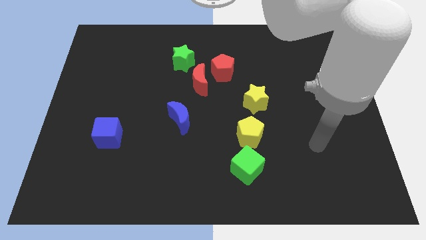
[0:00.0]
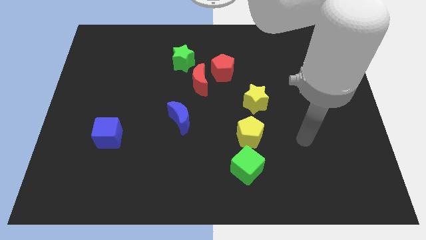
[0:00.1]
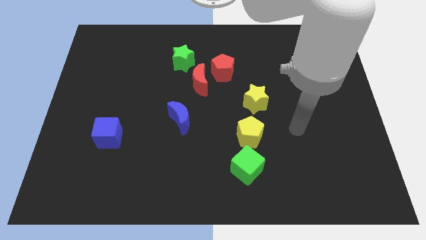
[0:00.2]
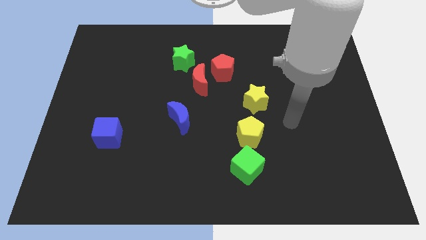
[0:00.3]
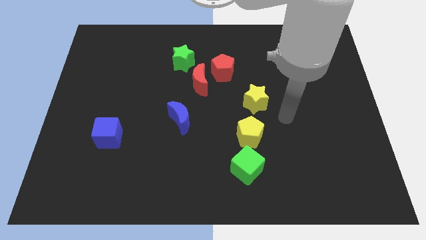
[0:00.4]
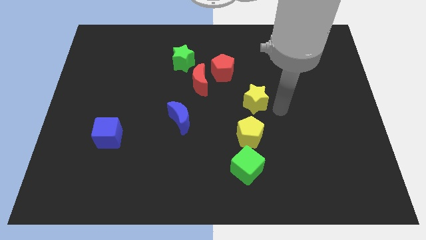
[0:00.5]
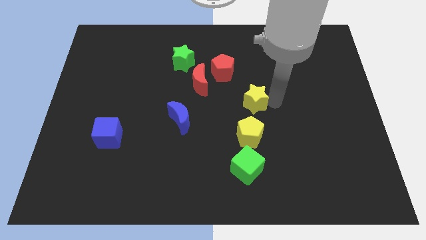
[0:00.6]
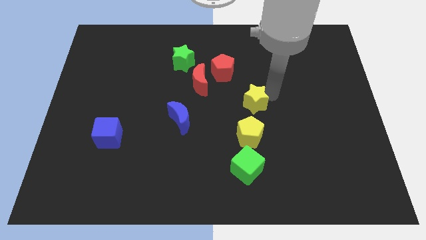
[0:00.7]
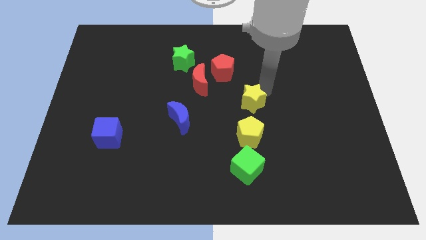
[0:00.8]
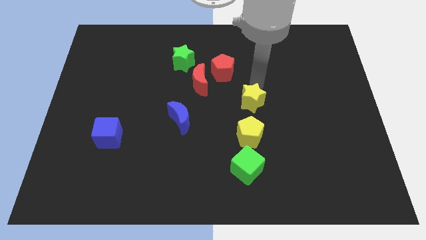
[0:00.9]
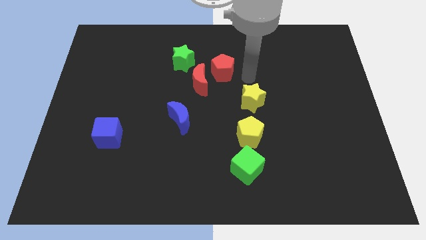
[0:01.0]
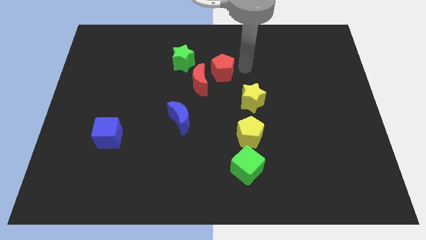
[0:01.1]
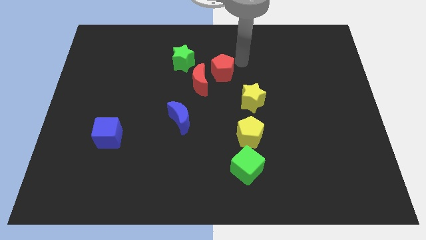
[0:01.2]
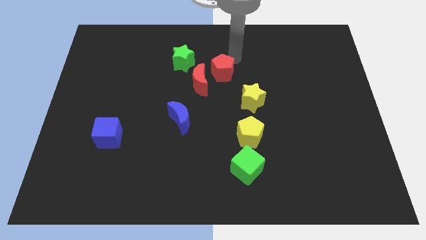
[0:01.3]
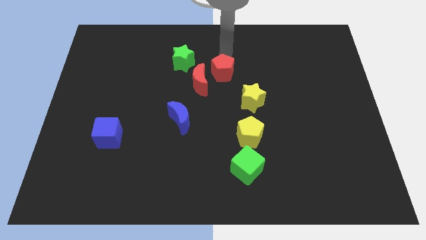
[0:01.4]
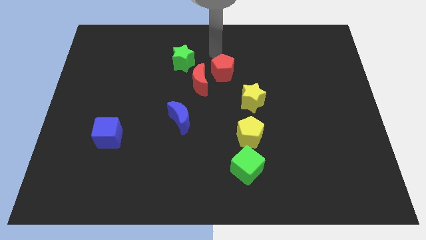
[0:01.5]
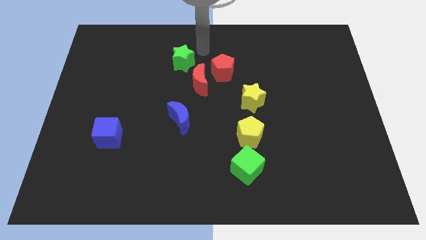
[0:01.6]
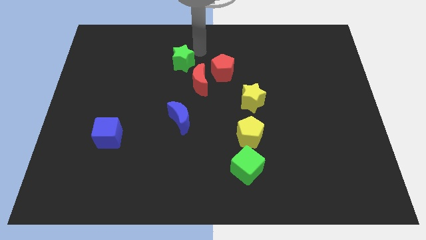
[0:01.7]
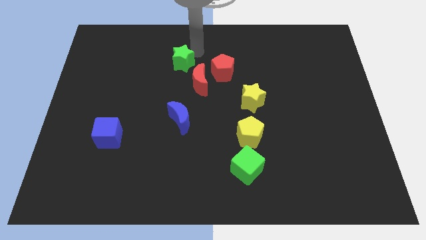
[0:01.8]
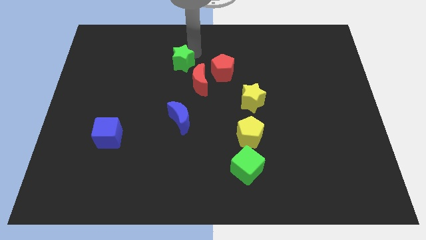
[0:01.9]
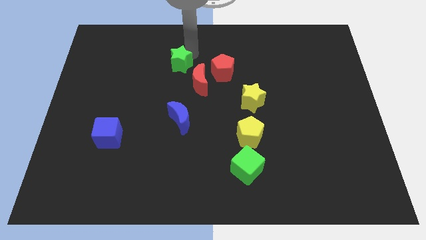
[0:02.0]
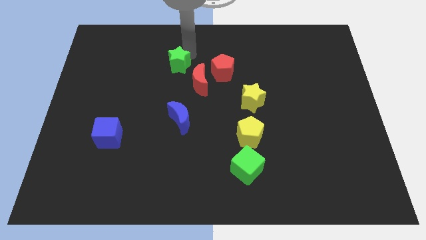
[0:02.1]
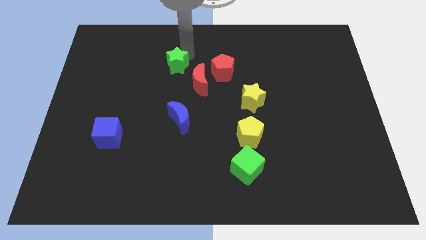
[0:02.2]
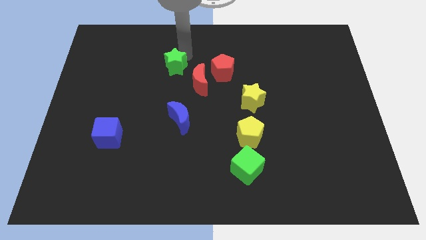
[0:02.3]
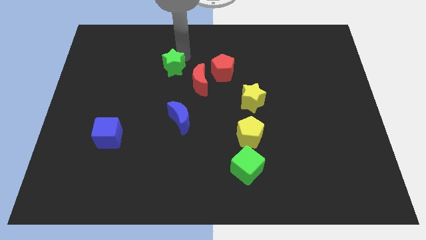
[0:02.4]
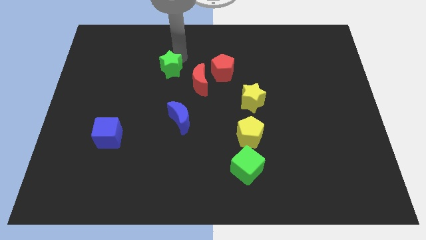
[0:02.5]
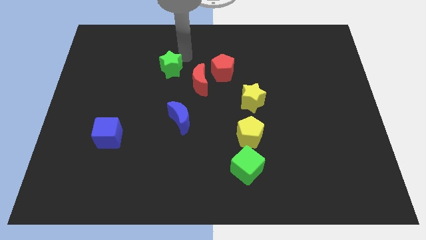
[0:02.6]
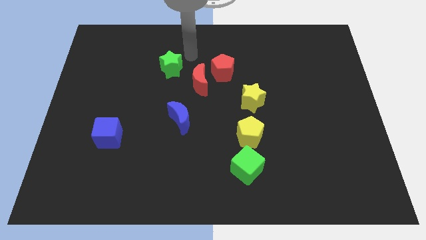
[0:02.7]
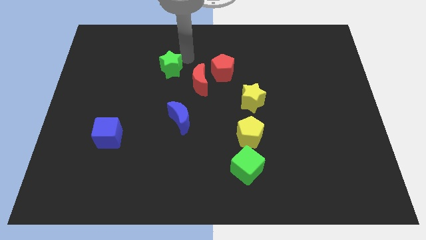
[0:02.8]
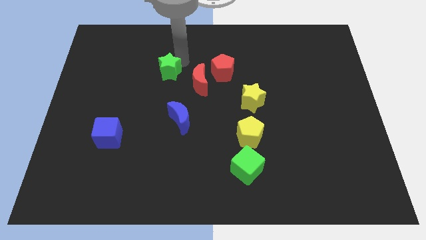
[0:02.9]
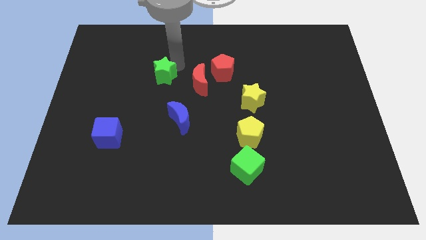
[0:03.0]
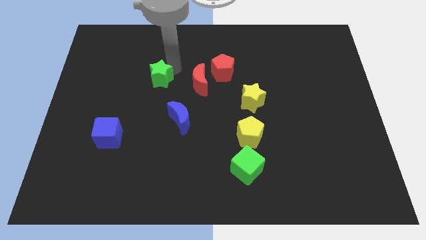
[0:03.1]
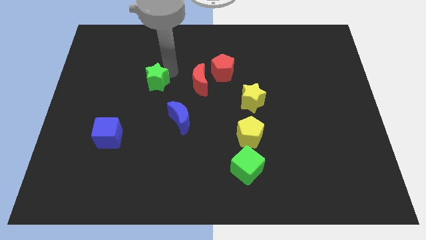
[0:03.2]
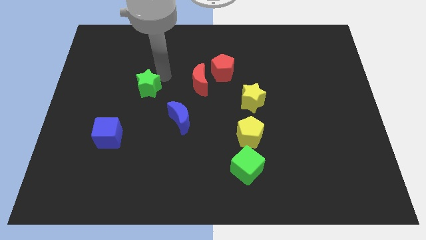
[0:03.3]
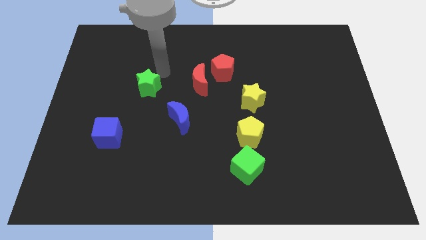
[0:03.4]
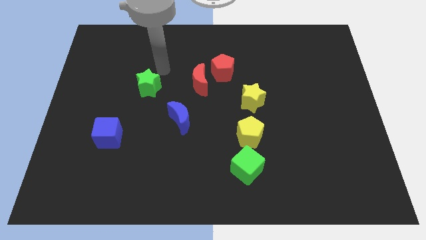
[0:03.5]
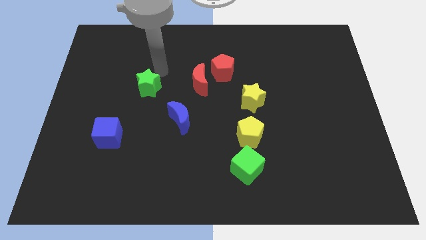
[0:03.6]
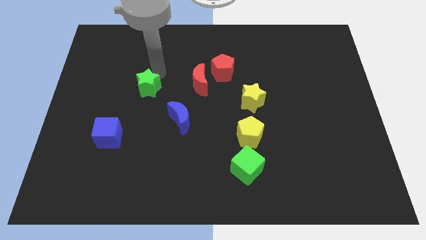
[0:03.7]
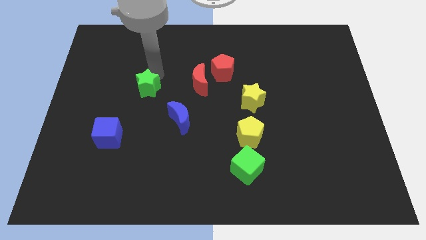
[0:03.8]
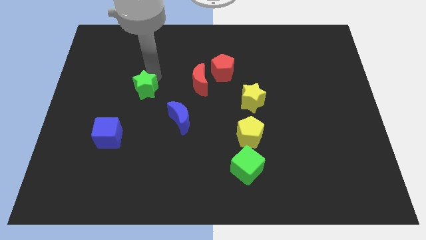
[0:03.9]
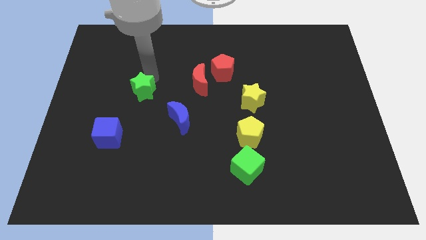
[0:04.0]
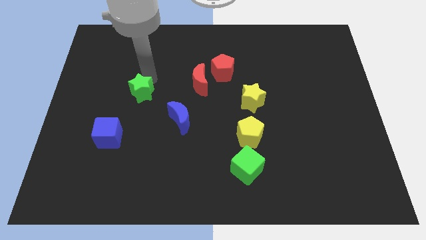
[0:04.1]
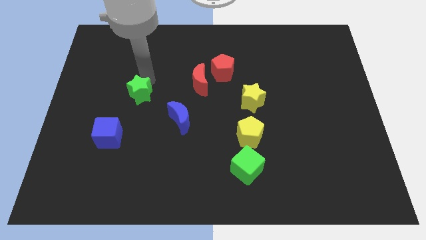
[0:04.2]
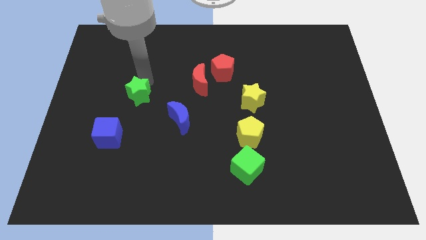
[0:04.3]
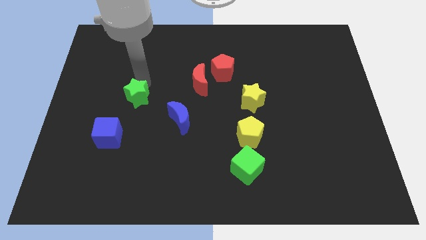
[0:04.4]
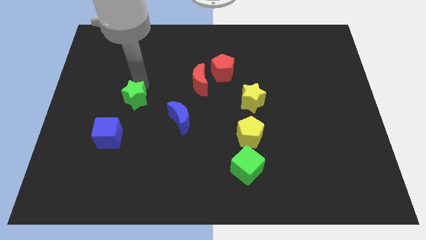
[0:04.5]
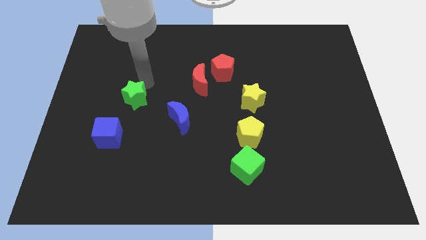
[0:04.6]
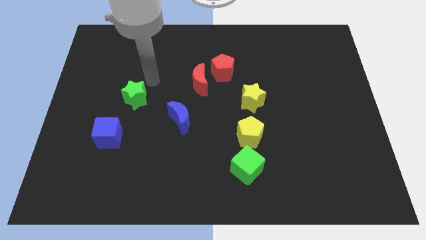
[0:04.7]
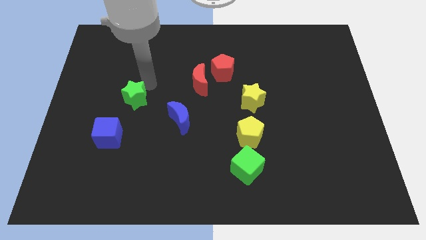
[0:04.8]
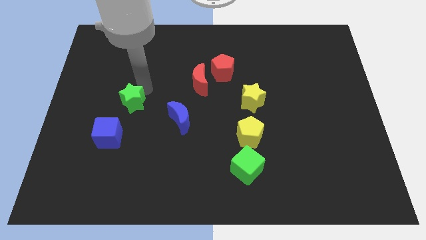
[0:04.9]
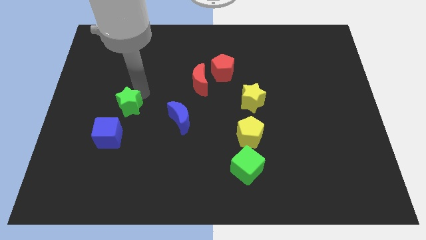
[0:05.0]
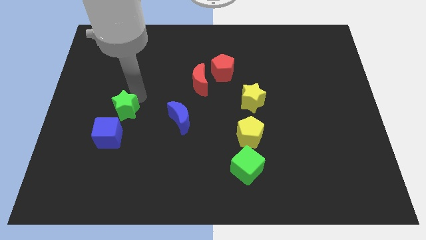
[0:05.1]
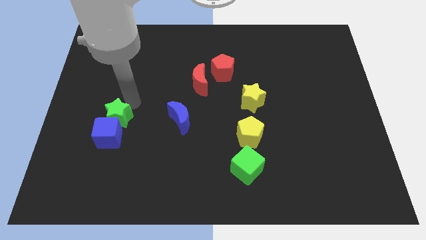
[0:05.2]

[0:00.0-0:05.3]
put the green star next to the blue cube

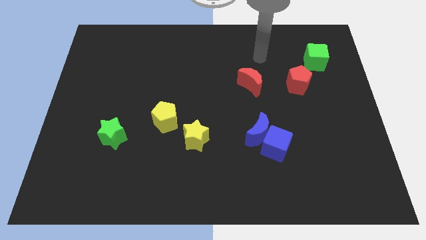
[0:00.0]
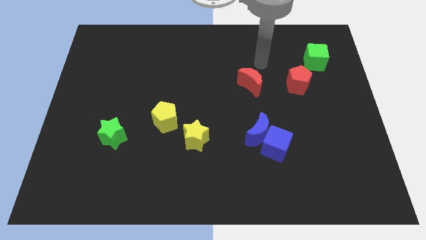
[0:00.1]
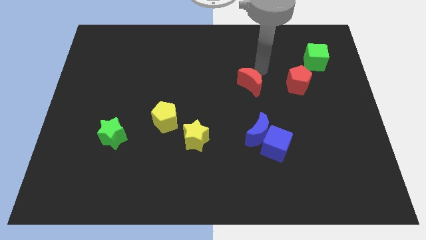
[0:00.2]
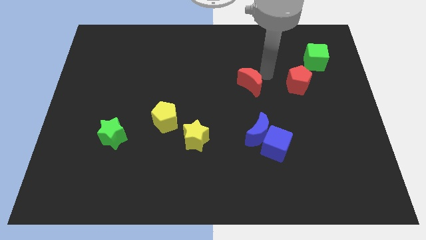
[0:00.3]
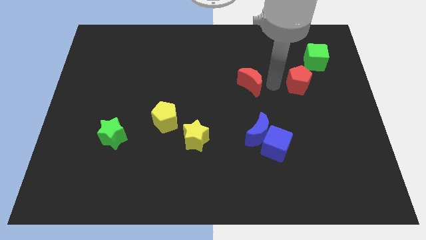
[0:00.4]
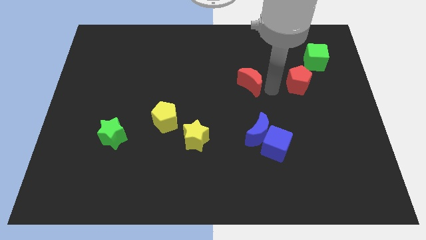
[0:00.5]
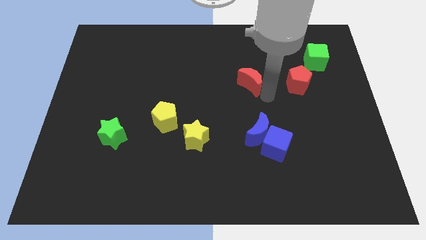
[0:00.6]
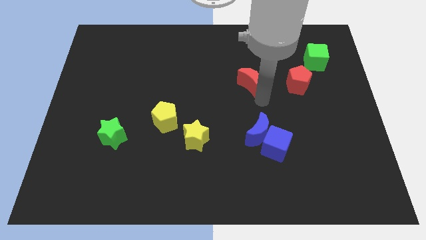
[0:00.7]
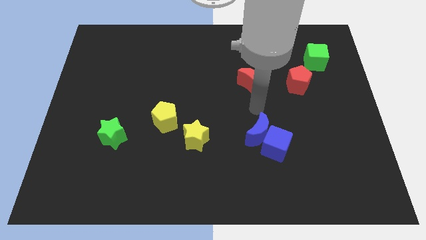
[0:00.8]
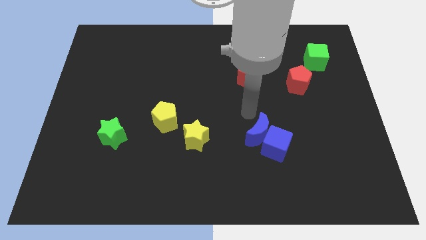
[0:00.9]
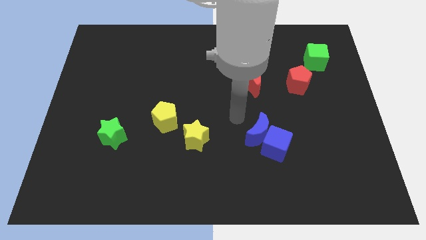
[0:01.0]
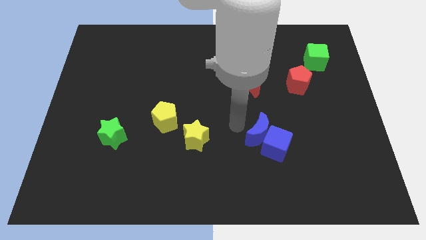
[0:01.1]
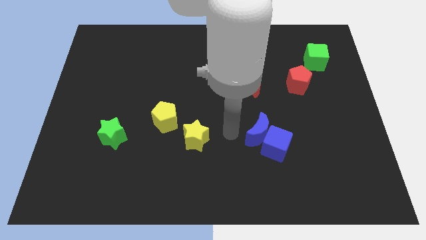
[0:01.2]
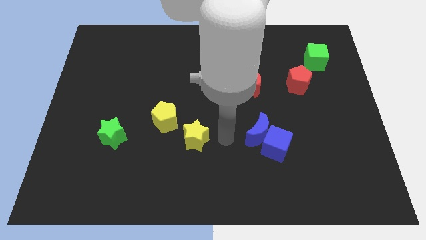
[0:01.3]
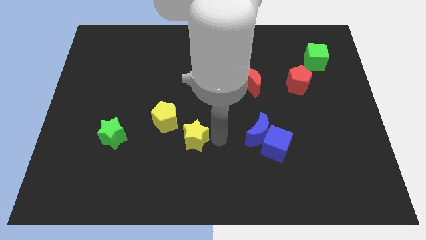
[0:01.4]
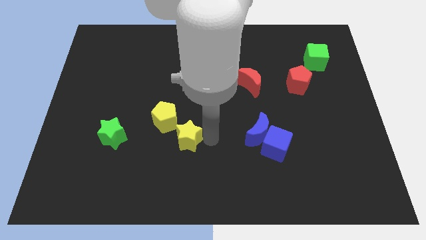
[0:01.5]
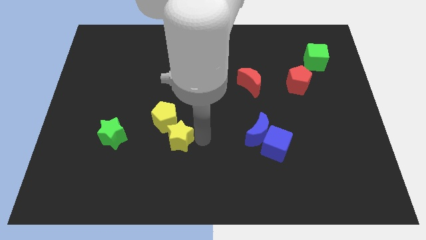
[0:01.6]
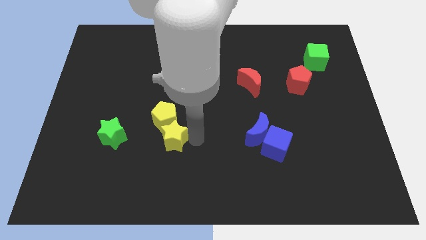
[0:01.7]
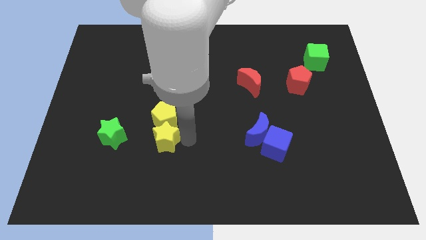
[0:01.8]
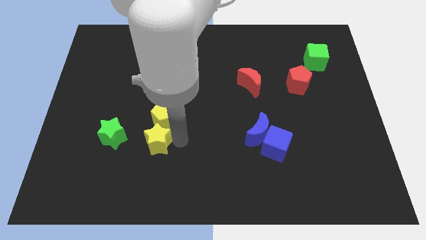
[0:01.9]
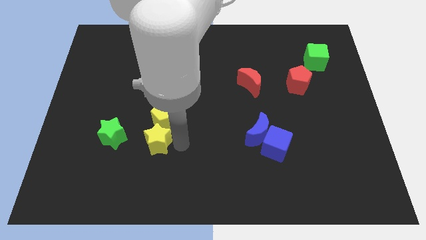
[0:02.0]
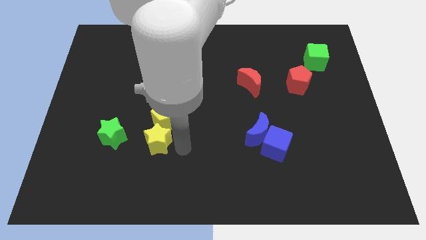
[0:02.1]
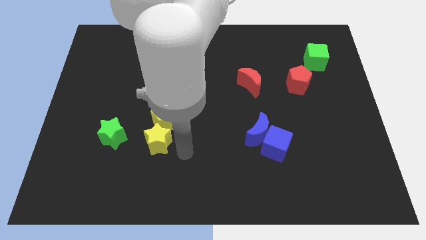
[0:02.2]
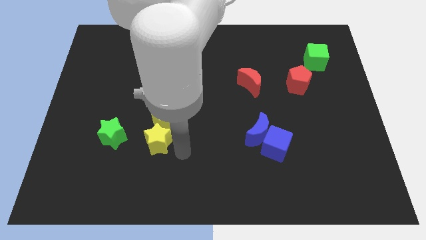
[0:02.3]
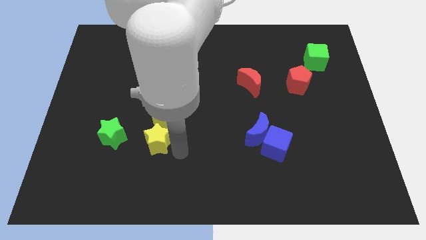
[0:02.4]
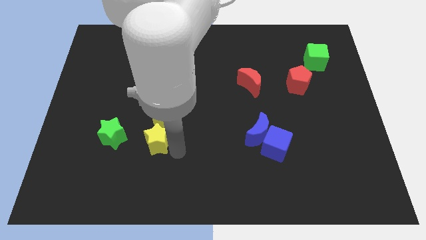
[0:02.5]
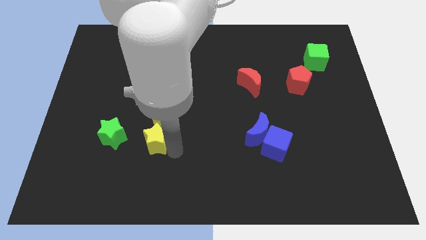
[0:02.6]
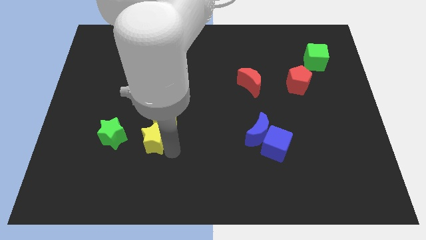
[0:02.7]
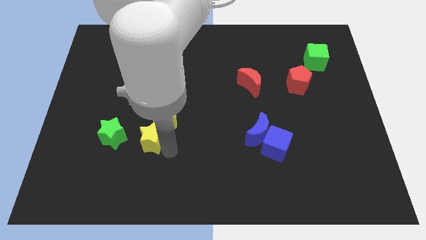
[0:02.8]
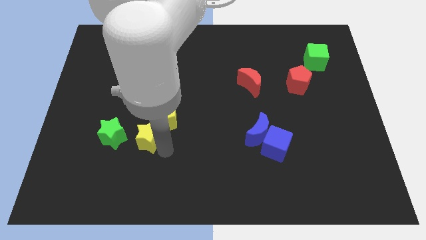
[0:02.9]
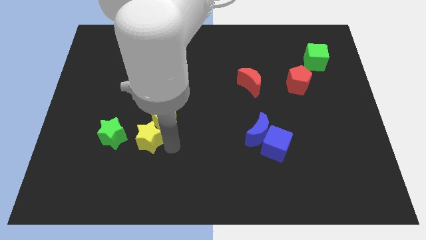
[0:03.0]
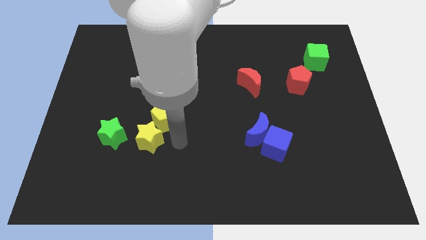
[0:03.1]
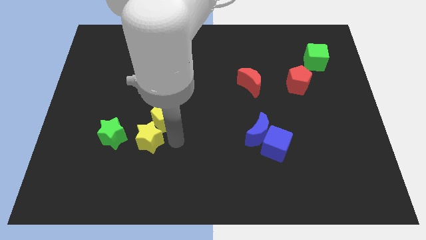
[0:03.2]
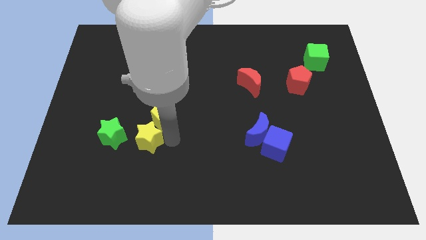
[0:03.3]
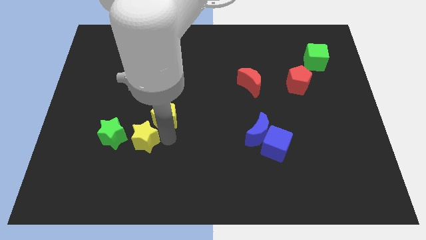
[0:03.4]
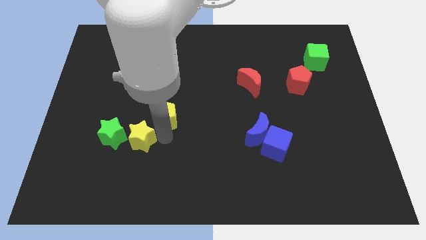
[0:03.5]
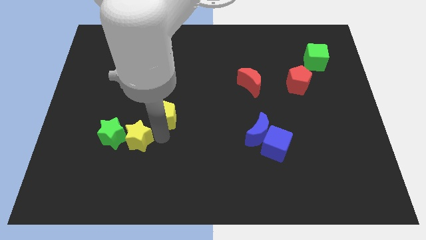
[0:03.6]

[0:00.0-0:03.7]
slide the yellow star to the green star
